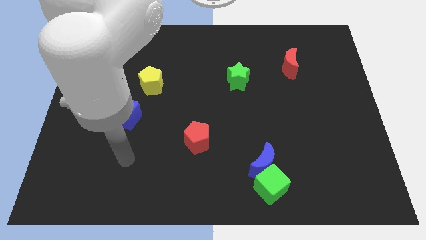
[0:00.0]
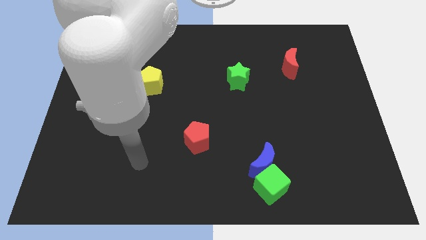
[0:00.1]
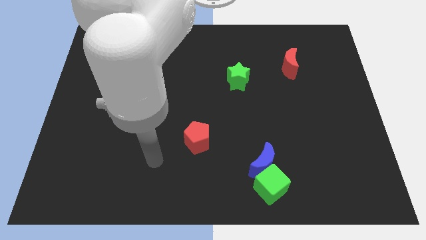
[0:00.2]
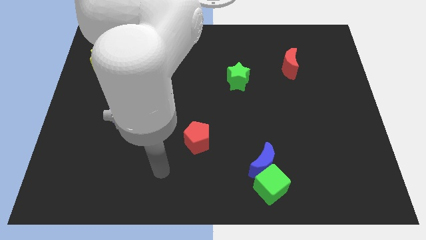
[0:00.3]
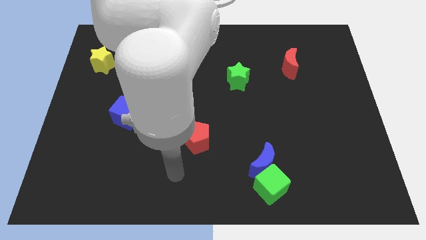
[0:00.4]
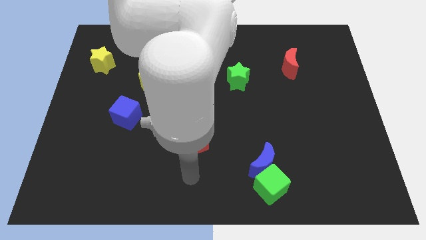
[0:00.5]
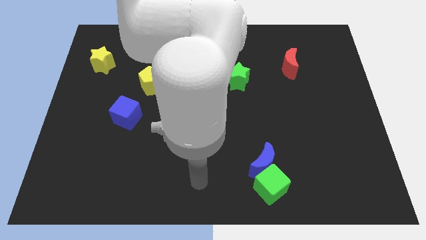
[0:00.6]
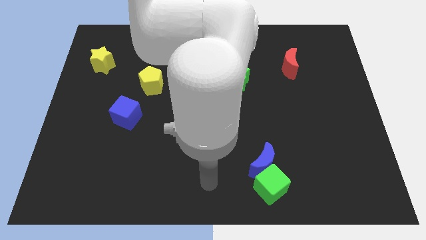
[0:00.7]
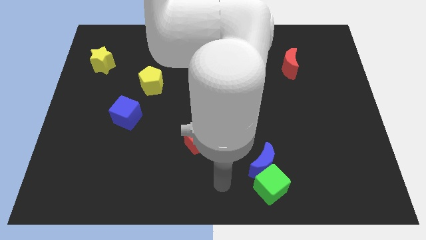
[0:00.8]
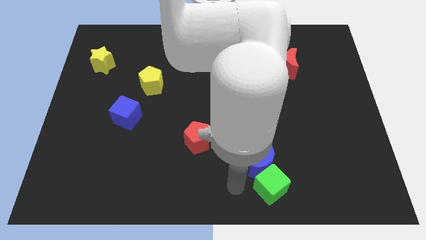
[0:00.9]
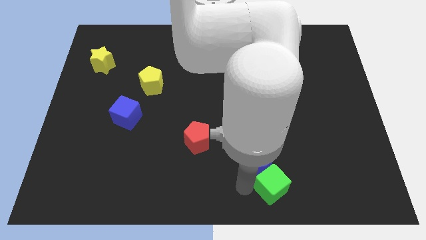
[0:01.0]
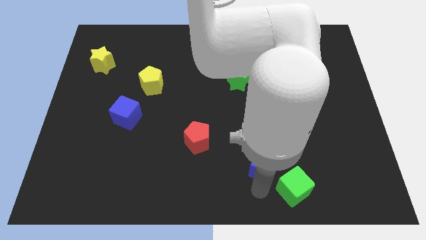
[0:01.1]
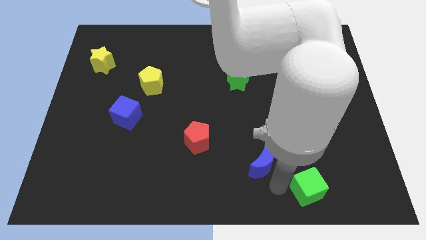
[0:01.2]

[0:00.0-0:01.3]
separate the blue moon from the green cube

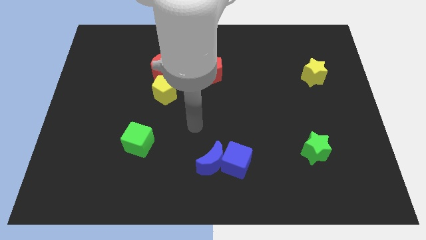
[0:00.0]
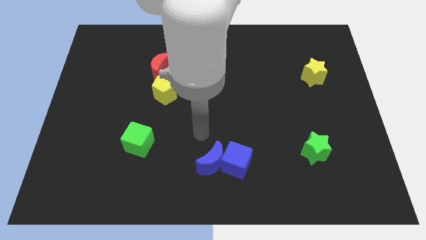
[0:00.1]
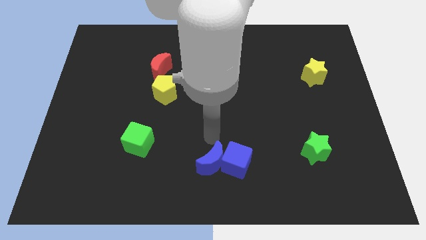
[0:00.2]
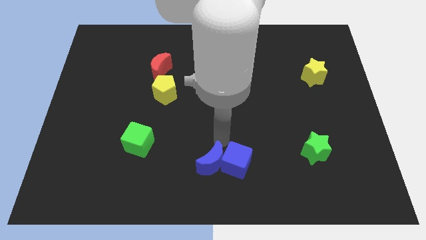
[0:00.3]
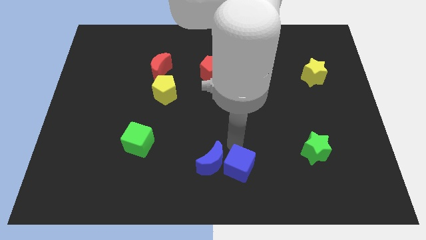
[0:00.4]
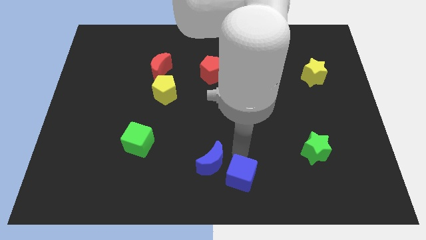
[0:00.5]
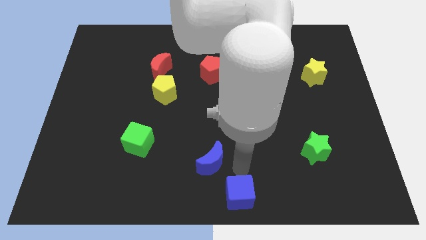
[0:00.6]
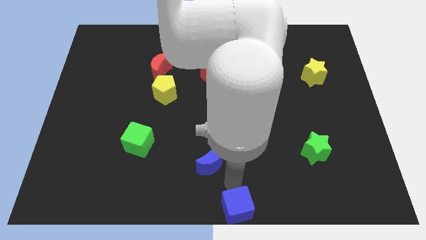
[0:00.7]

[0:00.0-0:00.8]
move the blue moon away from the blue cube

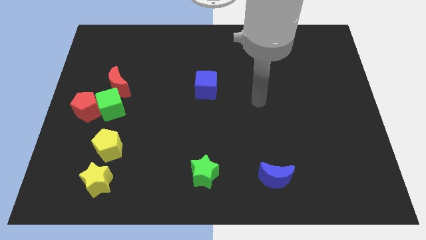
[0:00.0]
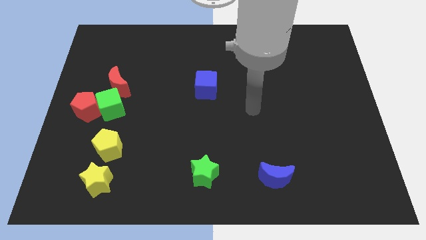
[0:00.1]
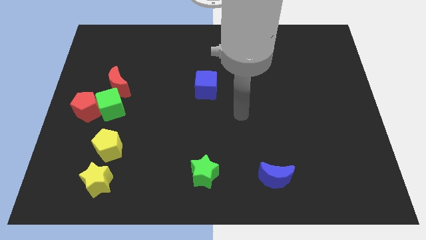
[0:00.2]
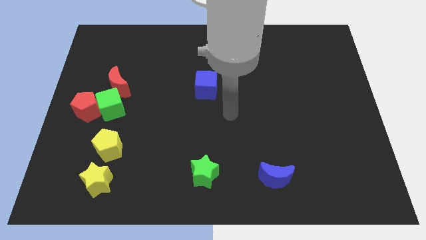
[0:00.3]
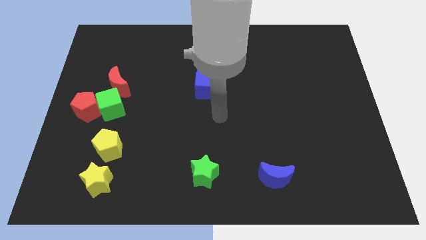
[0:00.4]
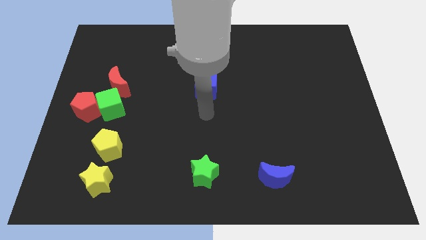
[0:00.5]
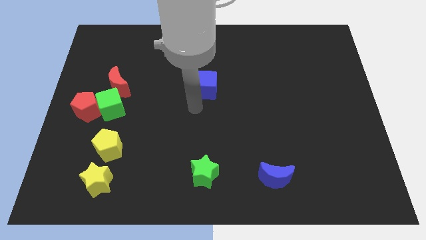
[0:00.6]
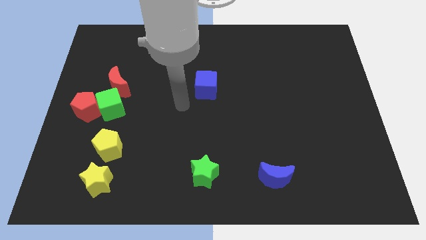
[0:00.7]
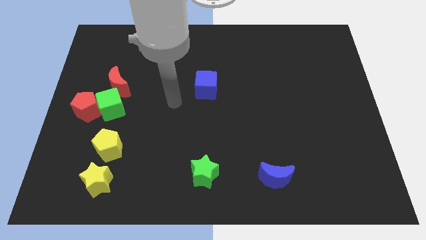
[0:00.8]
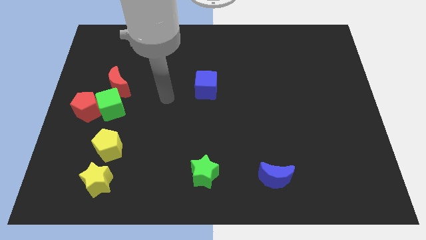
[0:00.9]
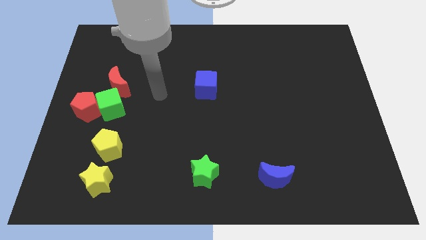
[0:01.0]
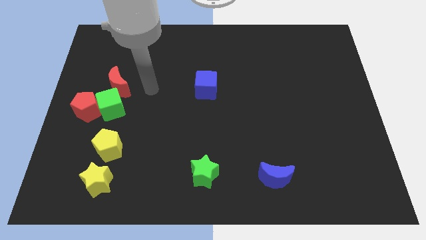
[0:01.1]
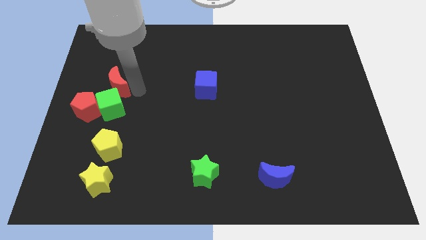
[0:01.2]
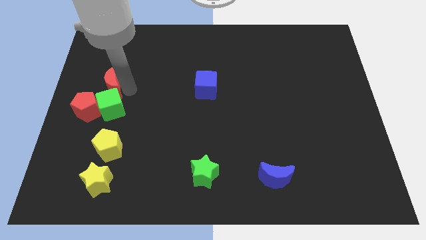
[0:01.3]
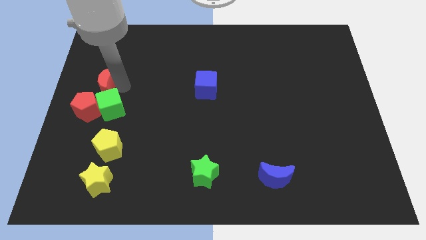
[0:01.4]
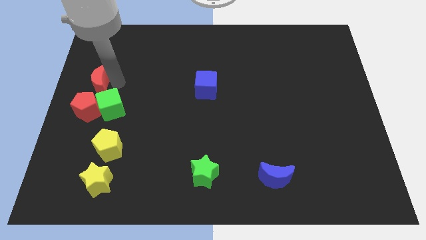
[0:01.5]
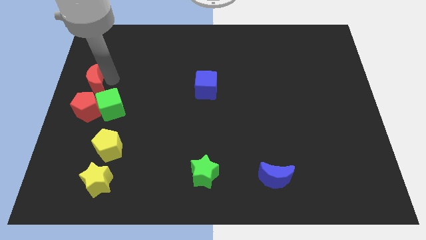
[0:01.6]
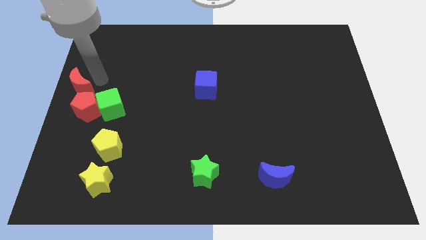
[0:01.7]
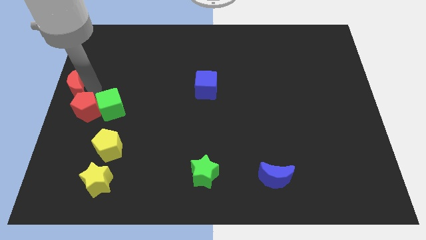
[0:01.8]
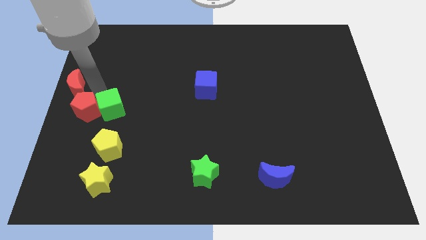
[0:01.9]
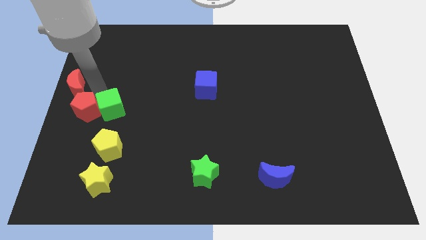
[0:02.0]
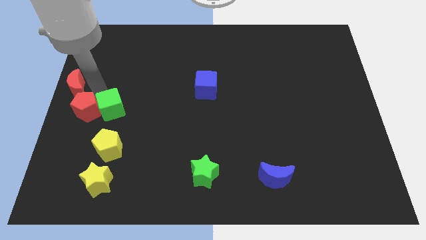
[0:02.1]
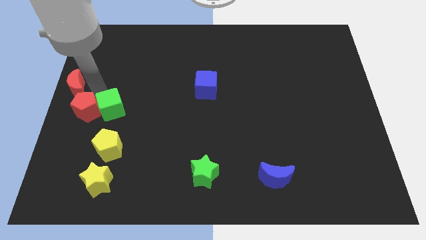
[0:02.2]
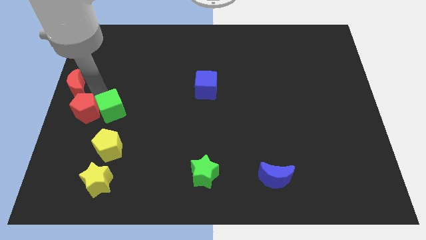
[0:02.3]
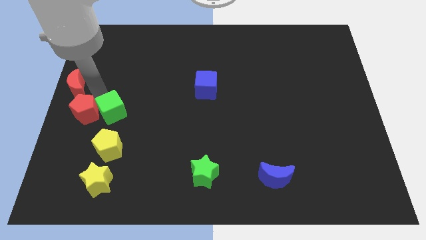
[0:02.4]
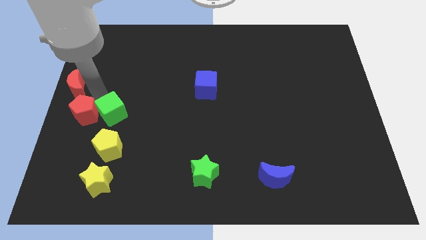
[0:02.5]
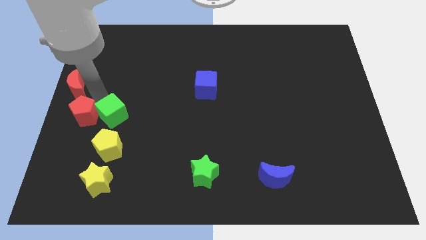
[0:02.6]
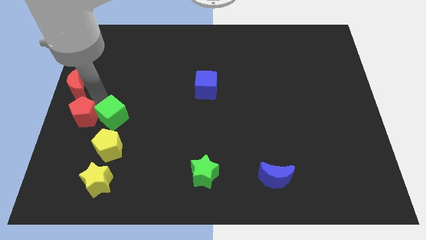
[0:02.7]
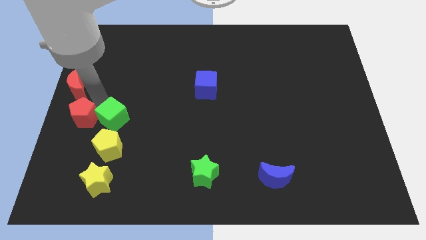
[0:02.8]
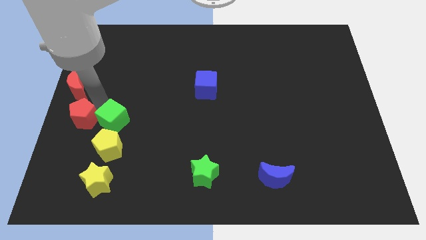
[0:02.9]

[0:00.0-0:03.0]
move the green cube away from the red pentagon and red moon

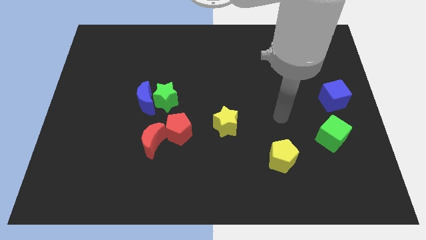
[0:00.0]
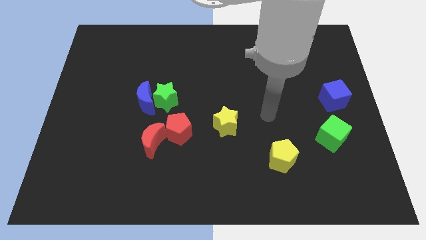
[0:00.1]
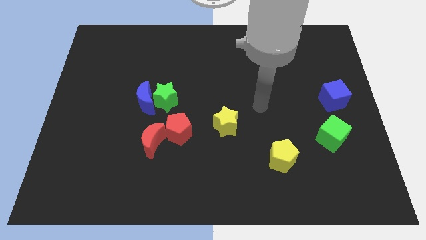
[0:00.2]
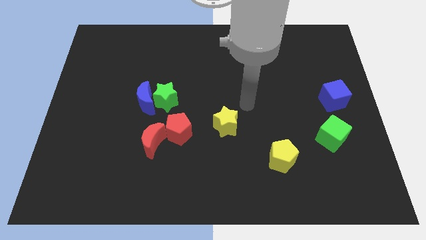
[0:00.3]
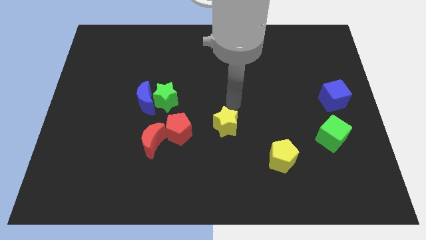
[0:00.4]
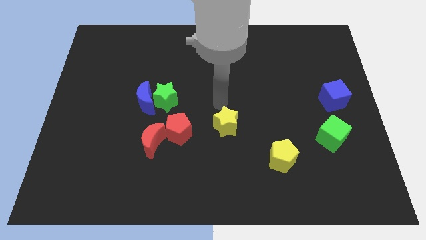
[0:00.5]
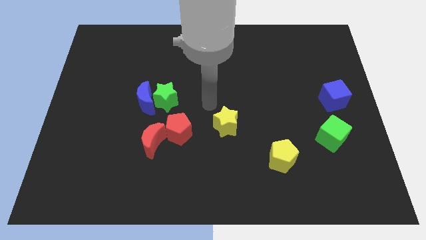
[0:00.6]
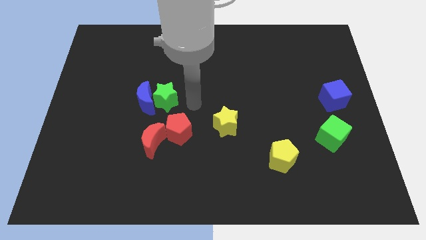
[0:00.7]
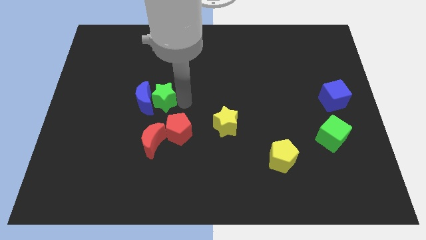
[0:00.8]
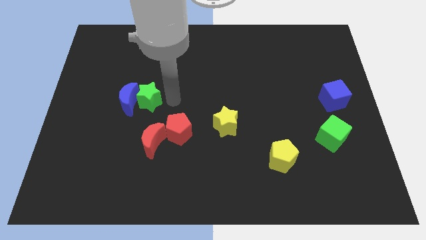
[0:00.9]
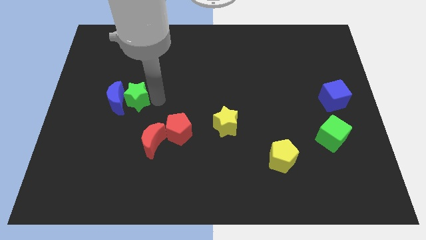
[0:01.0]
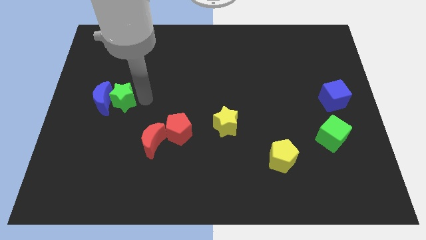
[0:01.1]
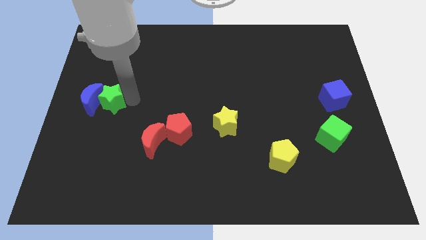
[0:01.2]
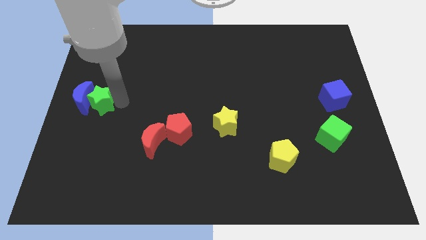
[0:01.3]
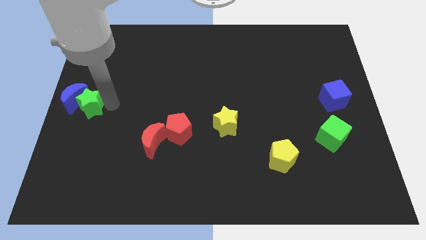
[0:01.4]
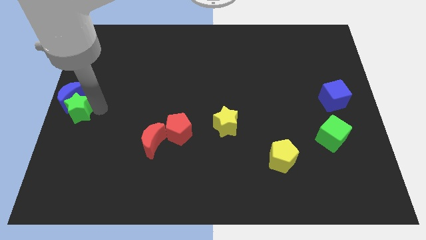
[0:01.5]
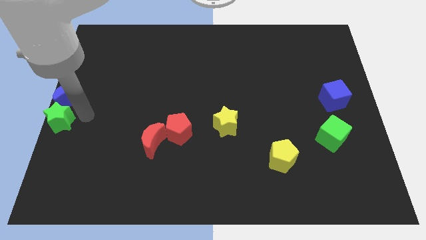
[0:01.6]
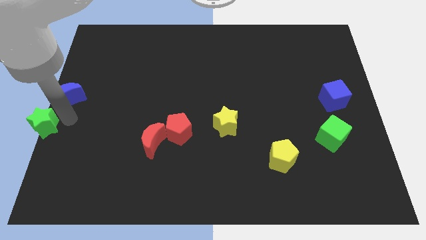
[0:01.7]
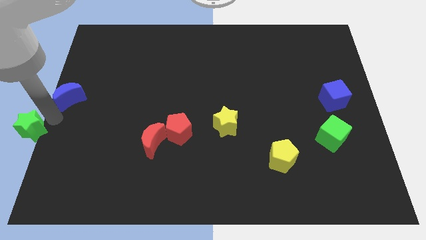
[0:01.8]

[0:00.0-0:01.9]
separate the blue moon from the green star

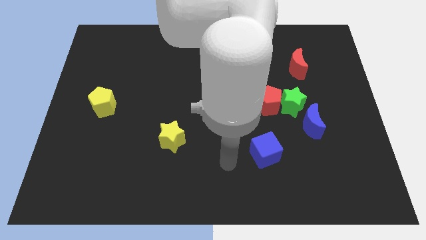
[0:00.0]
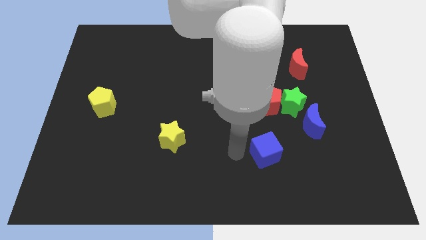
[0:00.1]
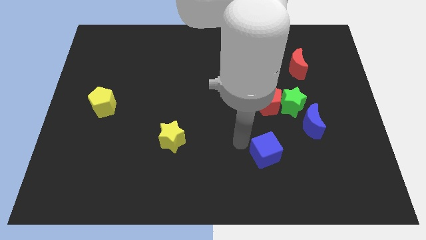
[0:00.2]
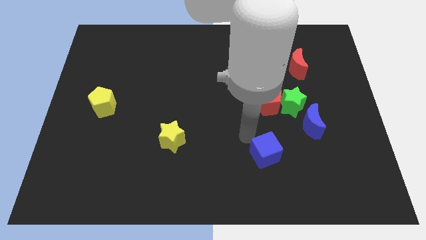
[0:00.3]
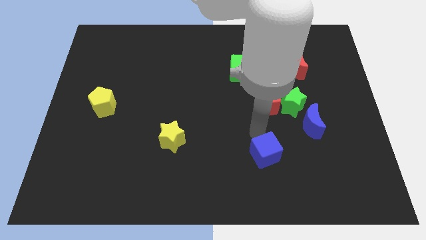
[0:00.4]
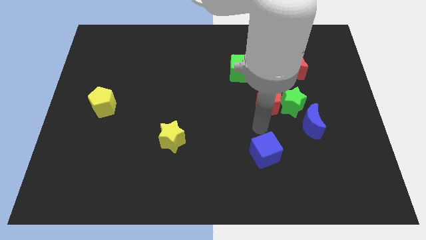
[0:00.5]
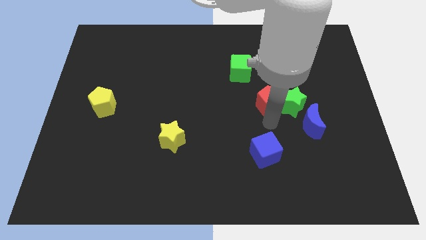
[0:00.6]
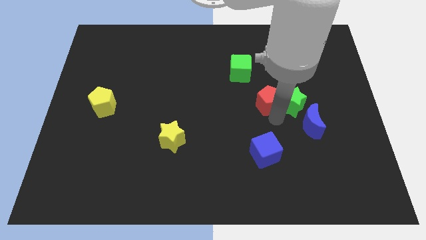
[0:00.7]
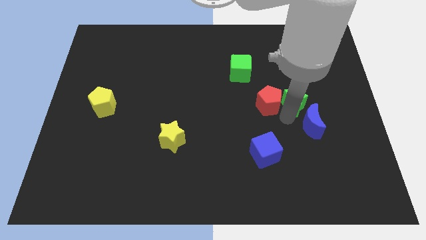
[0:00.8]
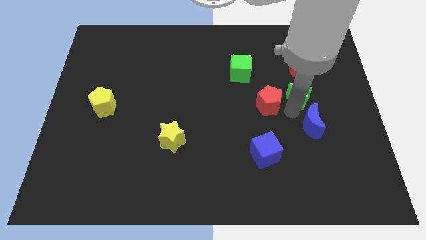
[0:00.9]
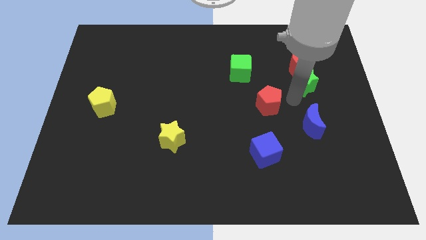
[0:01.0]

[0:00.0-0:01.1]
separate the red pentagon from the green star

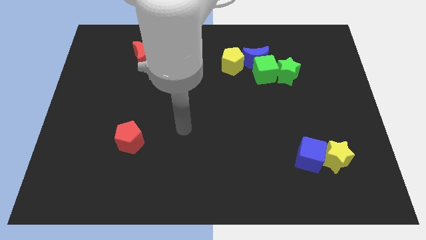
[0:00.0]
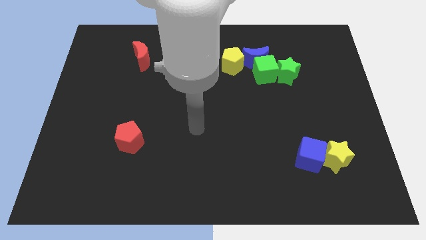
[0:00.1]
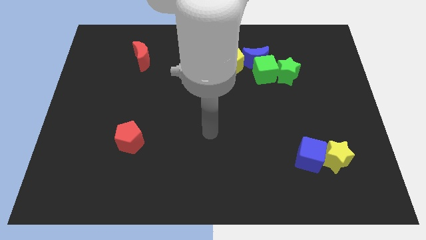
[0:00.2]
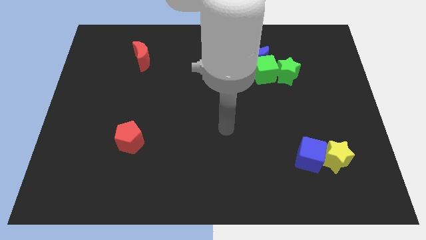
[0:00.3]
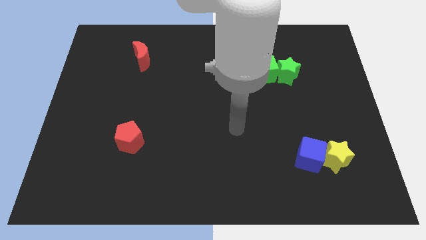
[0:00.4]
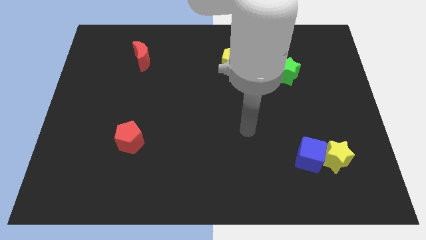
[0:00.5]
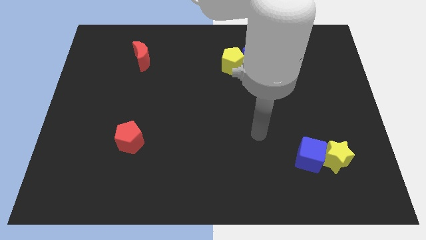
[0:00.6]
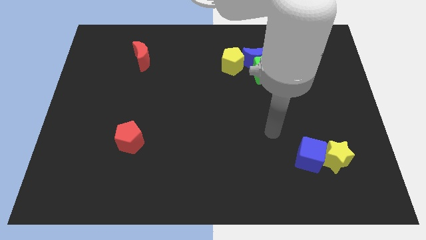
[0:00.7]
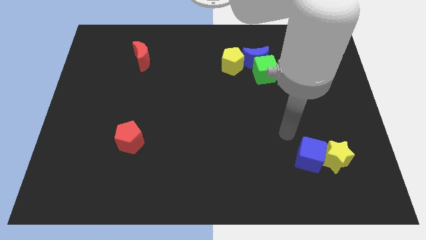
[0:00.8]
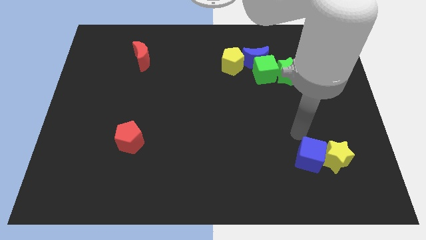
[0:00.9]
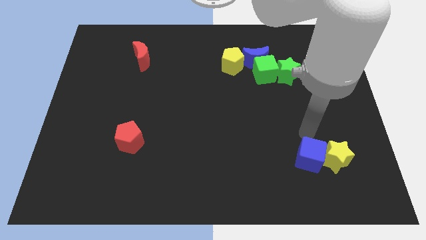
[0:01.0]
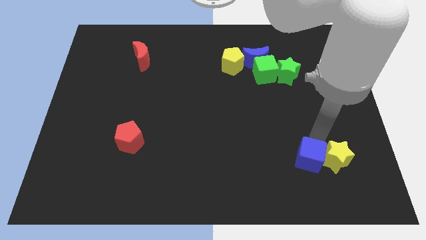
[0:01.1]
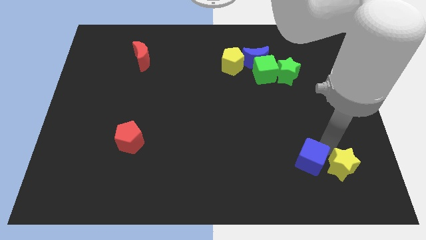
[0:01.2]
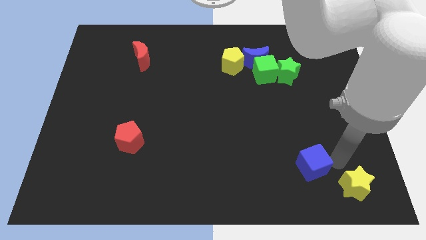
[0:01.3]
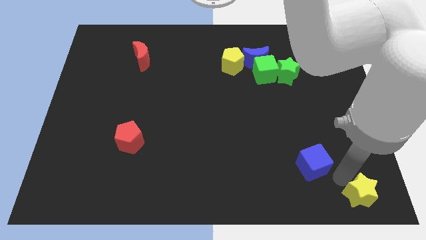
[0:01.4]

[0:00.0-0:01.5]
pull the blue cube apart from the yellow star
